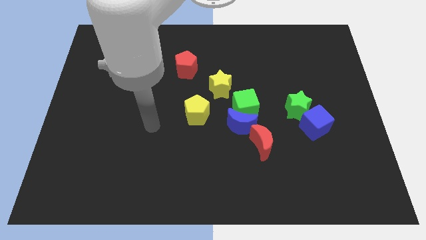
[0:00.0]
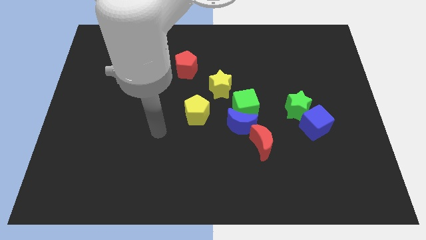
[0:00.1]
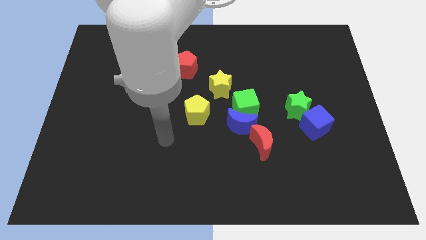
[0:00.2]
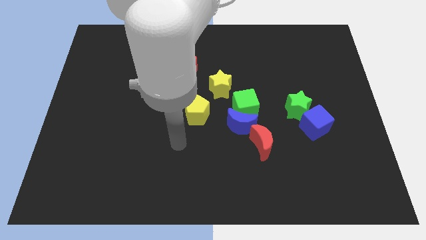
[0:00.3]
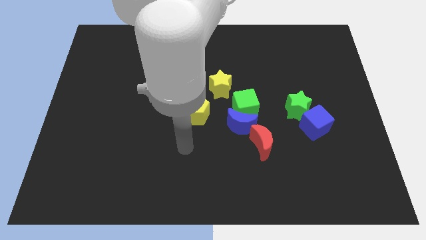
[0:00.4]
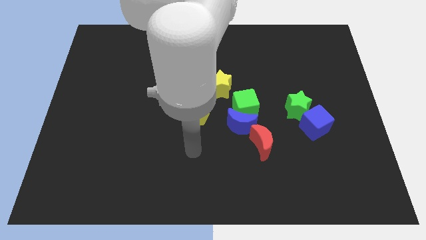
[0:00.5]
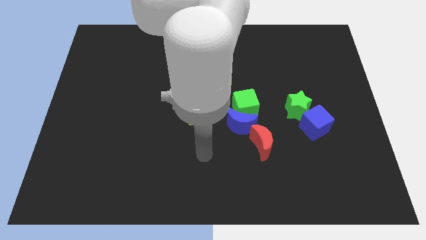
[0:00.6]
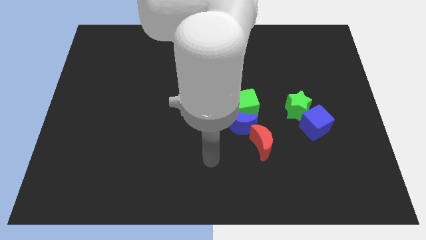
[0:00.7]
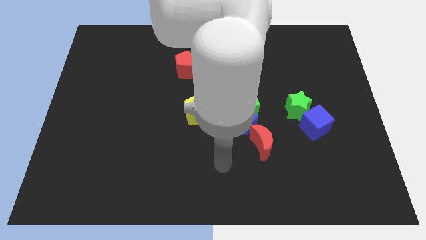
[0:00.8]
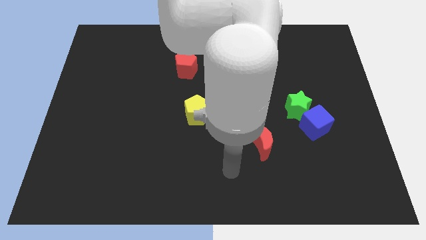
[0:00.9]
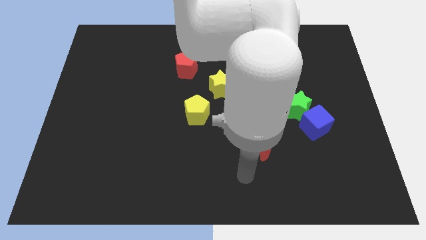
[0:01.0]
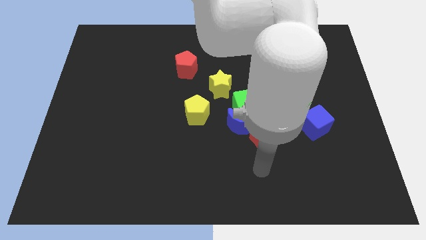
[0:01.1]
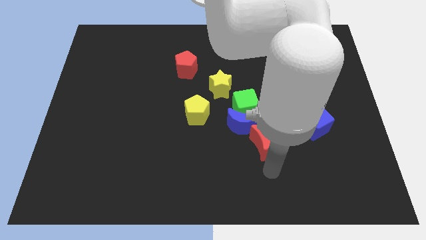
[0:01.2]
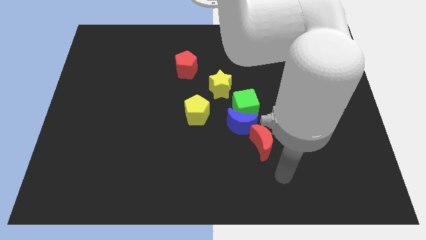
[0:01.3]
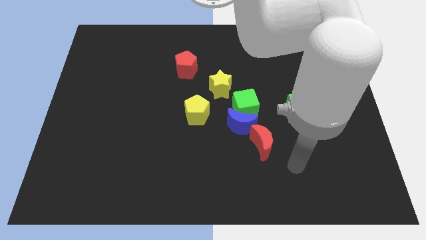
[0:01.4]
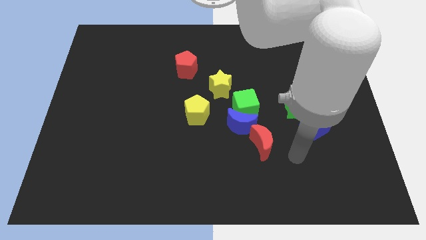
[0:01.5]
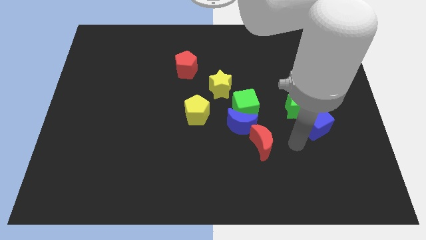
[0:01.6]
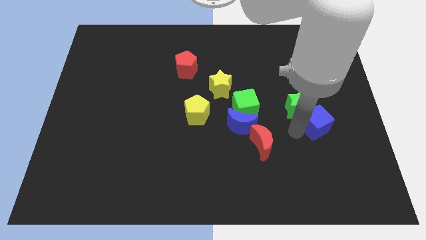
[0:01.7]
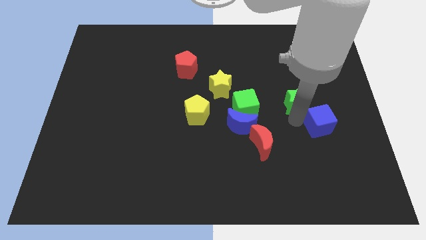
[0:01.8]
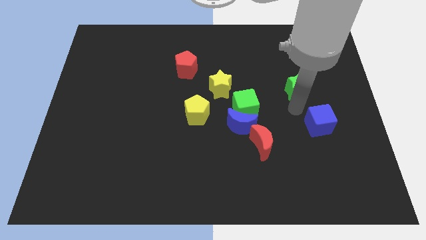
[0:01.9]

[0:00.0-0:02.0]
pull the blue cube apart from the green star

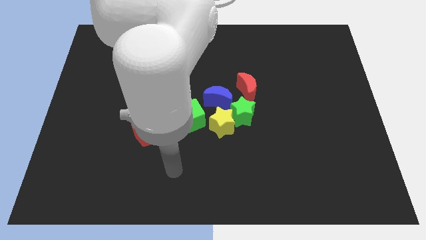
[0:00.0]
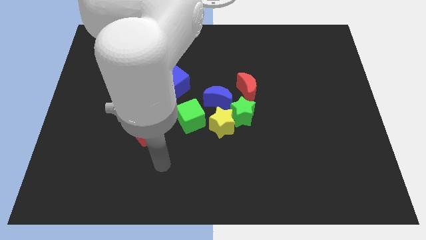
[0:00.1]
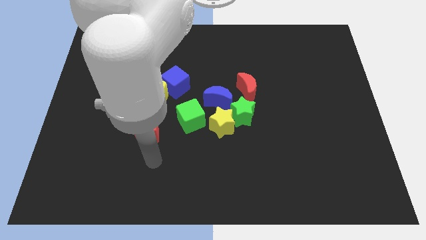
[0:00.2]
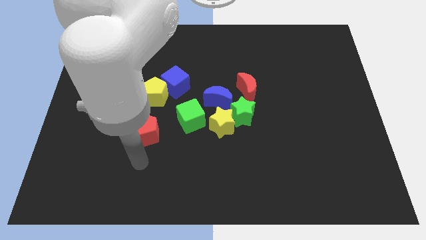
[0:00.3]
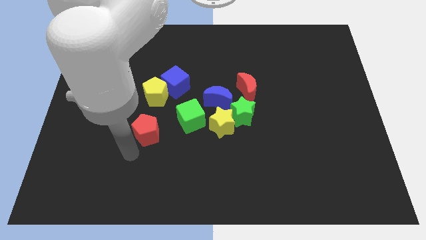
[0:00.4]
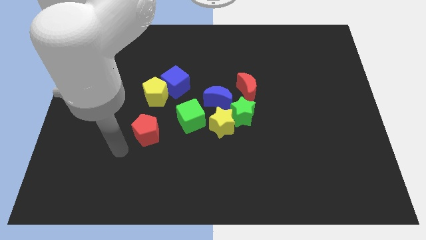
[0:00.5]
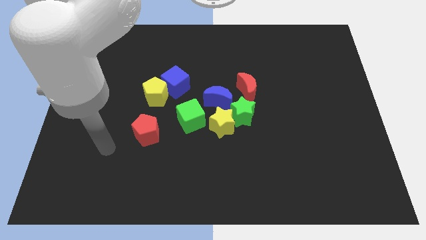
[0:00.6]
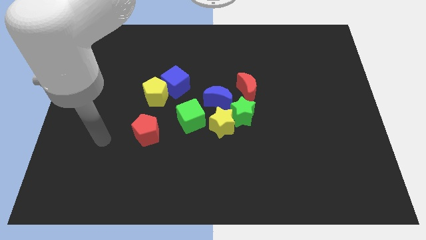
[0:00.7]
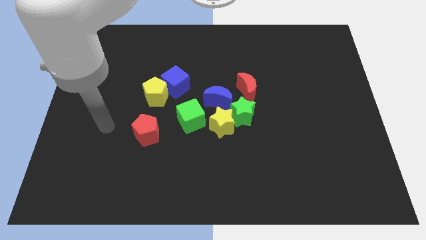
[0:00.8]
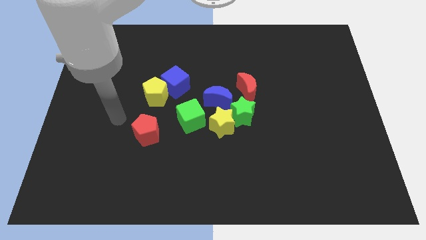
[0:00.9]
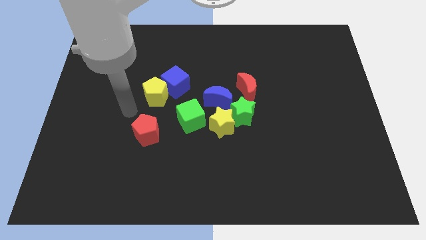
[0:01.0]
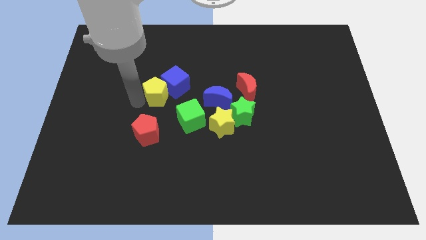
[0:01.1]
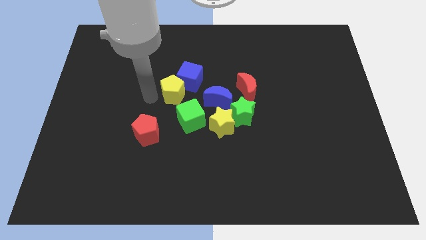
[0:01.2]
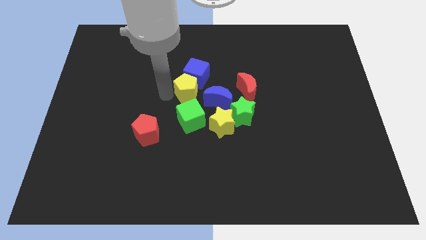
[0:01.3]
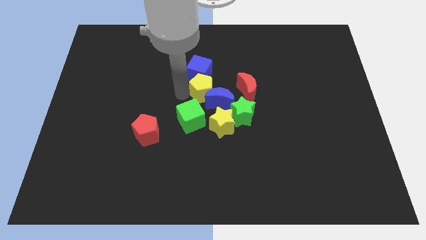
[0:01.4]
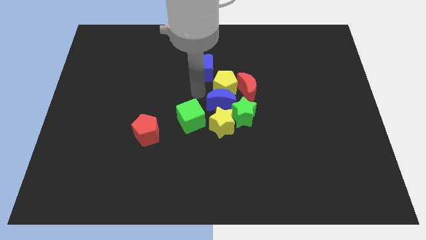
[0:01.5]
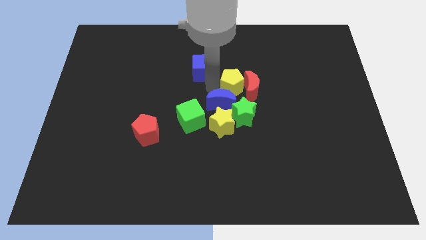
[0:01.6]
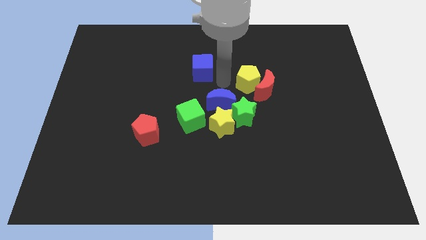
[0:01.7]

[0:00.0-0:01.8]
pull the blue cube apart from the yellow pentagon

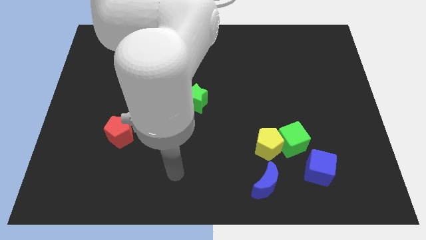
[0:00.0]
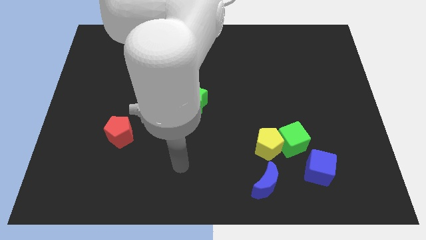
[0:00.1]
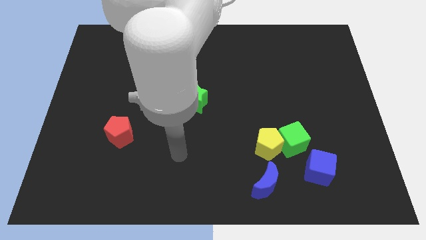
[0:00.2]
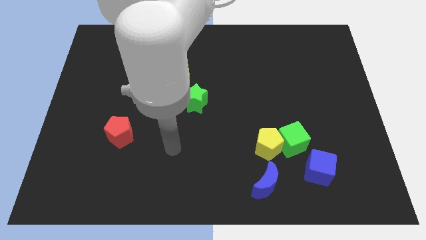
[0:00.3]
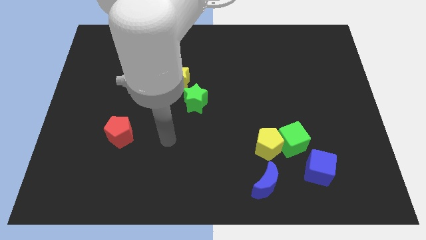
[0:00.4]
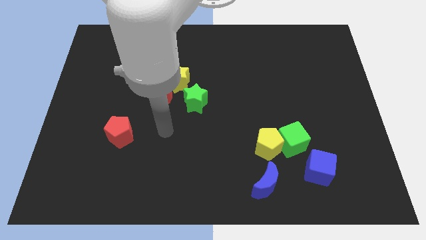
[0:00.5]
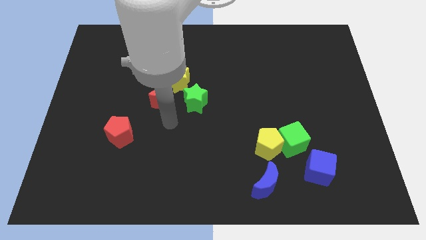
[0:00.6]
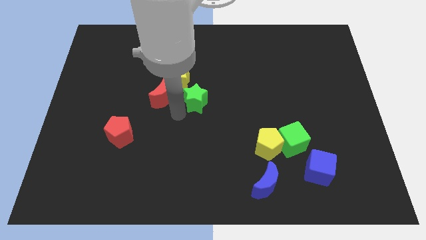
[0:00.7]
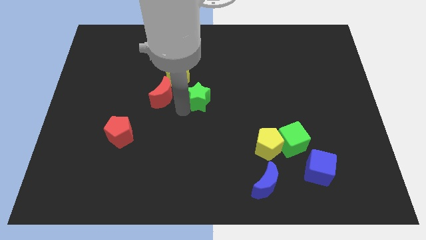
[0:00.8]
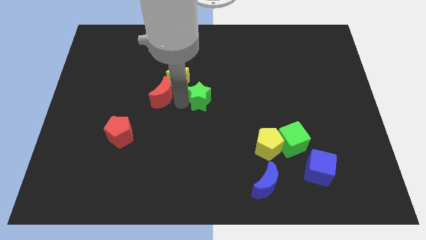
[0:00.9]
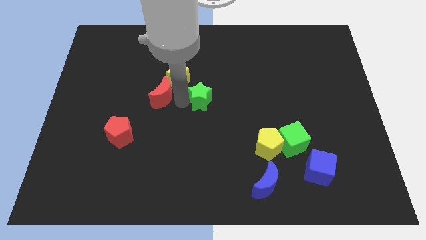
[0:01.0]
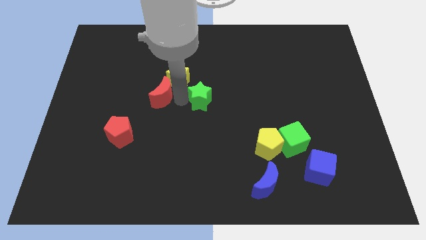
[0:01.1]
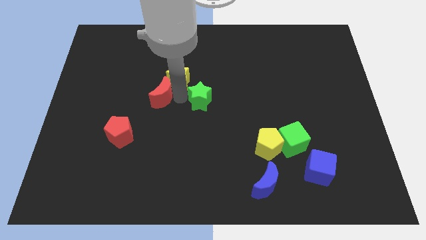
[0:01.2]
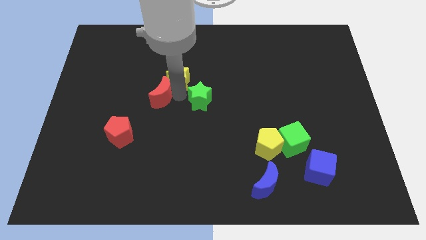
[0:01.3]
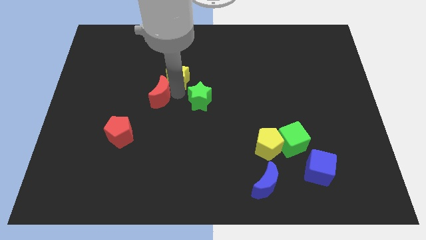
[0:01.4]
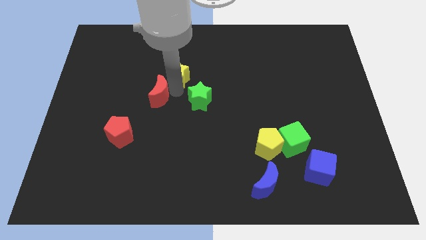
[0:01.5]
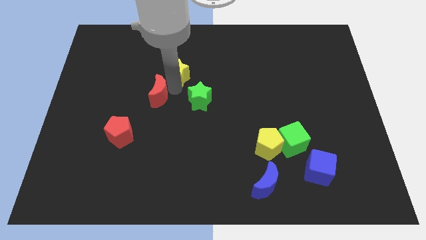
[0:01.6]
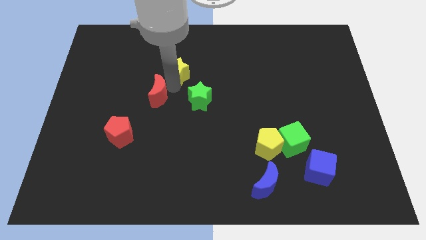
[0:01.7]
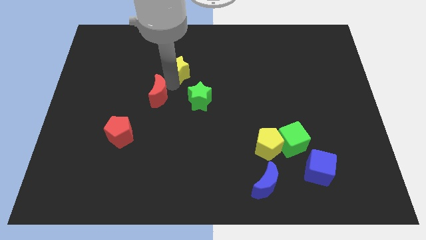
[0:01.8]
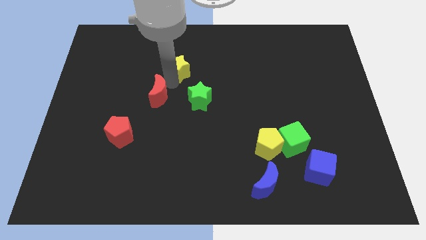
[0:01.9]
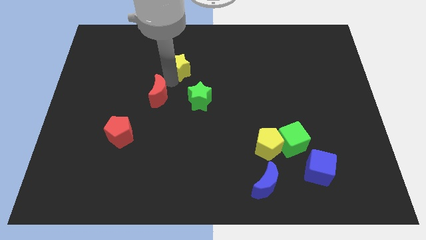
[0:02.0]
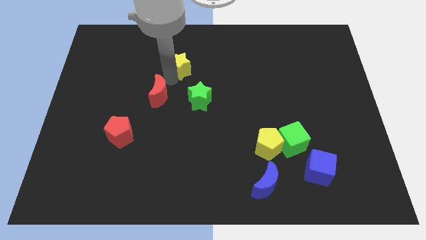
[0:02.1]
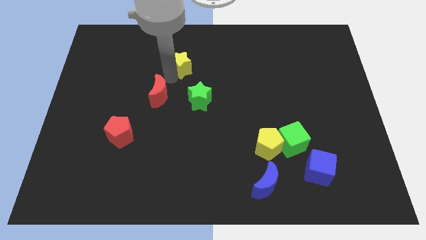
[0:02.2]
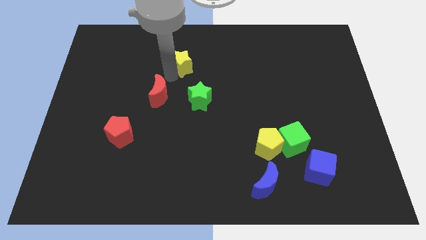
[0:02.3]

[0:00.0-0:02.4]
move the yellow star away from the red moon and green star

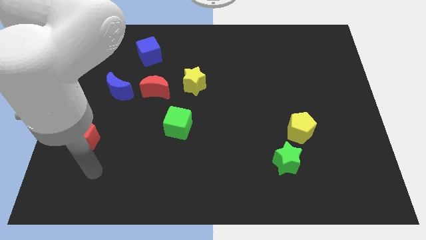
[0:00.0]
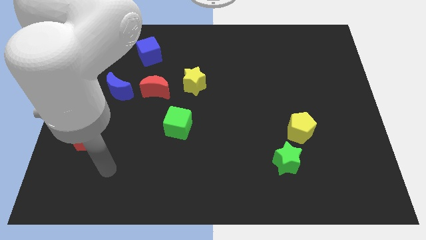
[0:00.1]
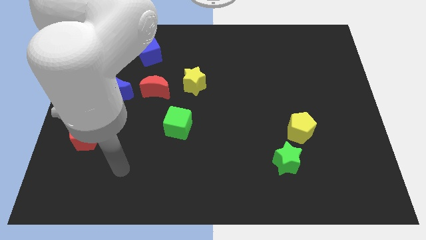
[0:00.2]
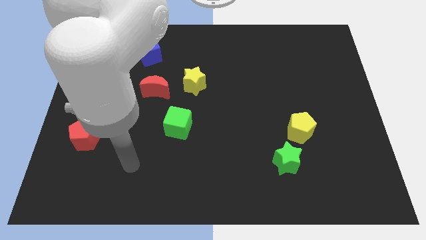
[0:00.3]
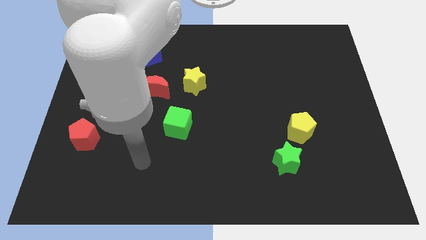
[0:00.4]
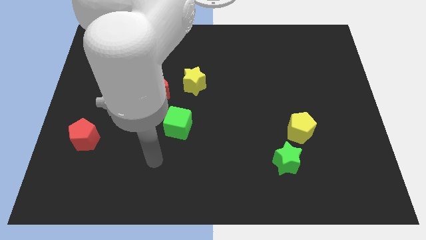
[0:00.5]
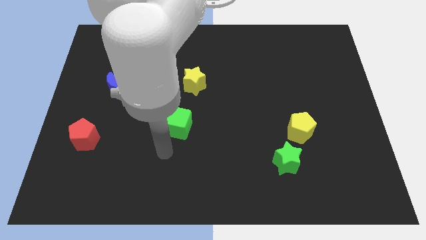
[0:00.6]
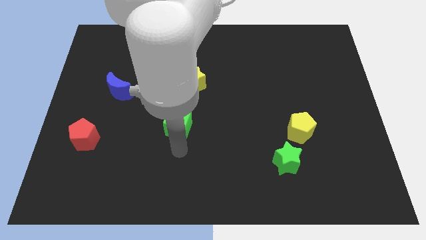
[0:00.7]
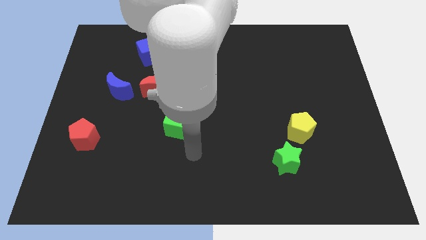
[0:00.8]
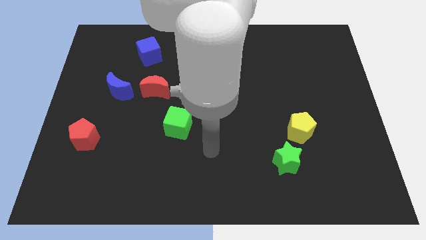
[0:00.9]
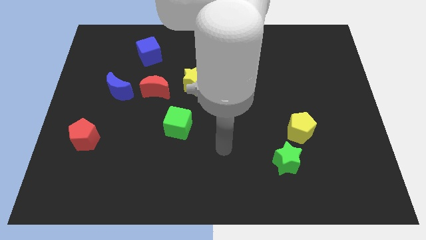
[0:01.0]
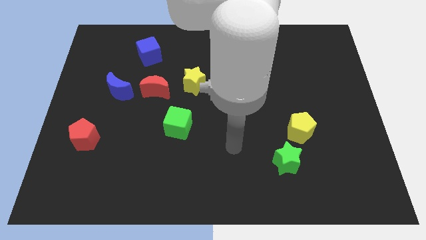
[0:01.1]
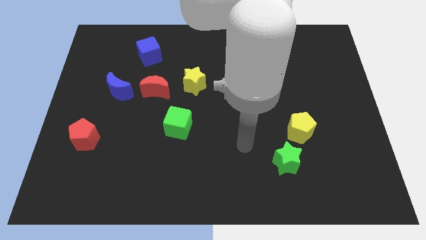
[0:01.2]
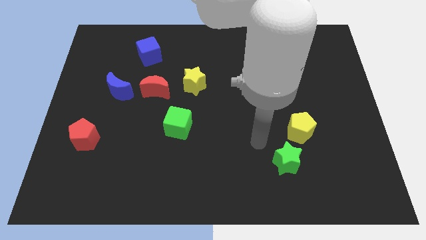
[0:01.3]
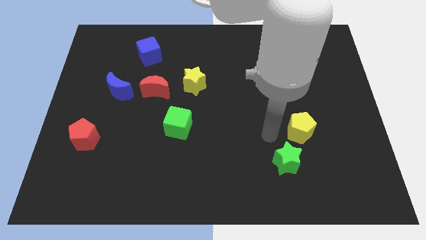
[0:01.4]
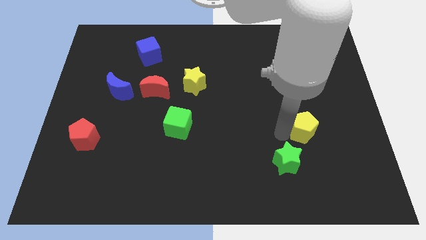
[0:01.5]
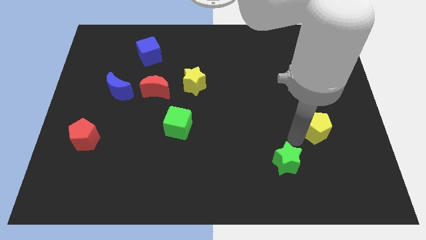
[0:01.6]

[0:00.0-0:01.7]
move the green star away from the yellow pentagon

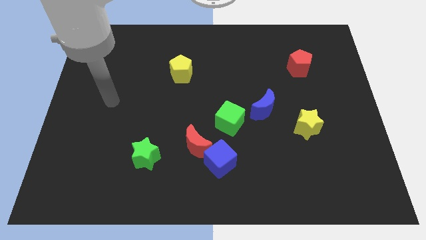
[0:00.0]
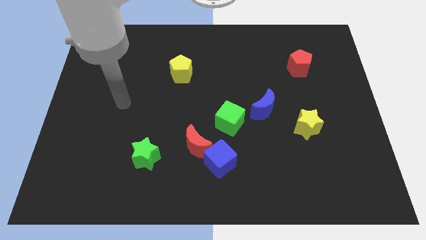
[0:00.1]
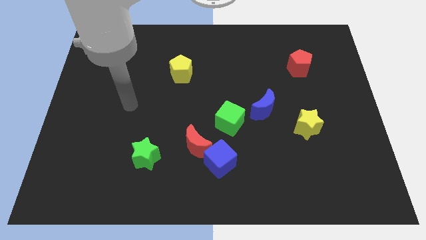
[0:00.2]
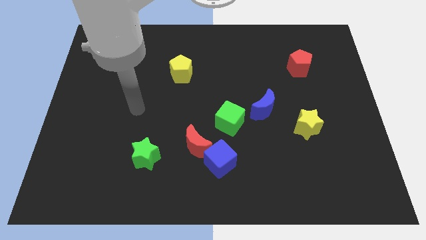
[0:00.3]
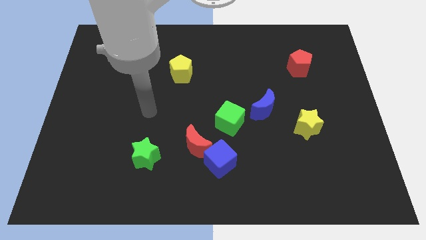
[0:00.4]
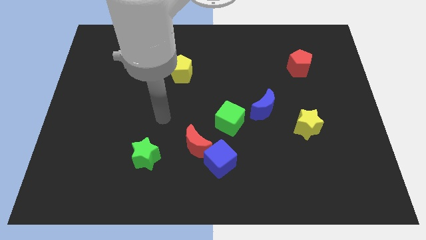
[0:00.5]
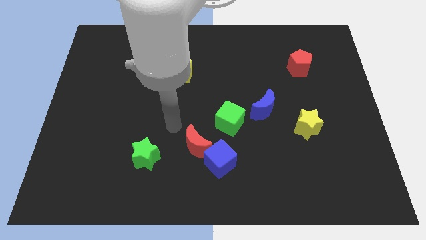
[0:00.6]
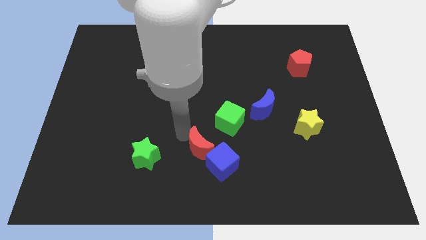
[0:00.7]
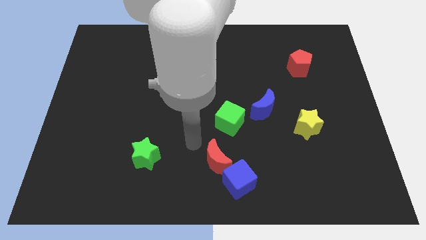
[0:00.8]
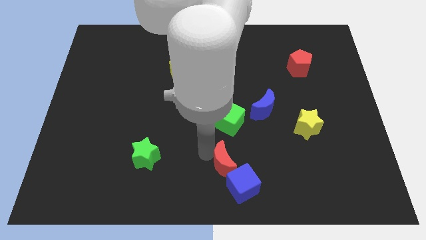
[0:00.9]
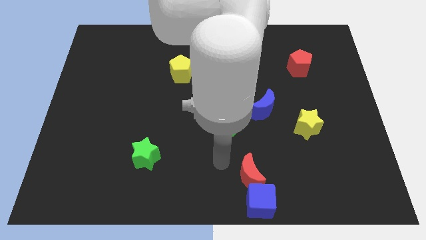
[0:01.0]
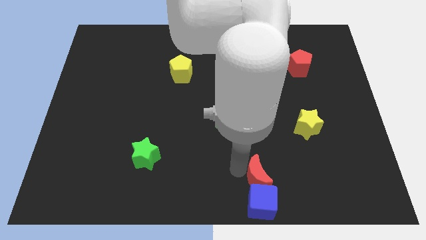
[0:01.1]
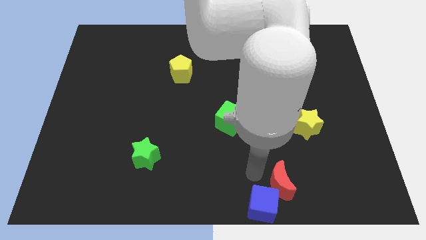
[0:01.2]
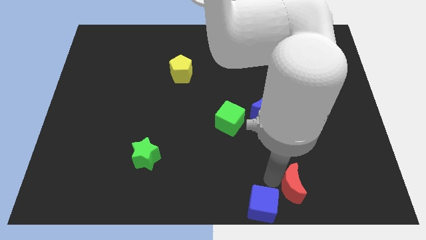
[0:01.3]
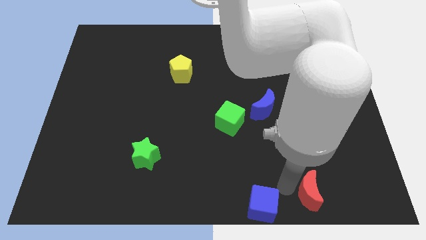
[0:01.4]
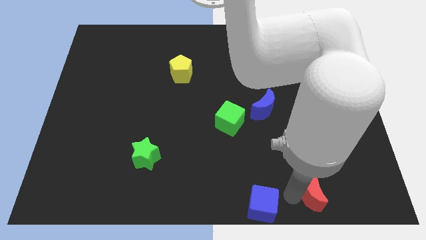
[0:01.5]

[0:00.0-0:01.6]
pull the blue cube apart from the red moon
